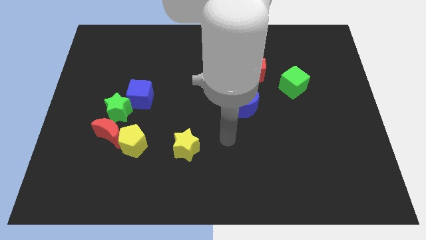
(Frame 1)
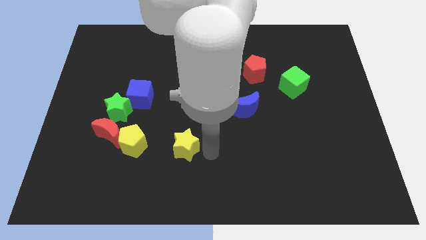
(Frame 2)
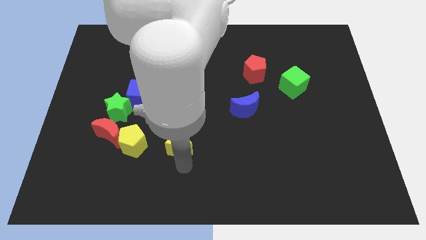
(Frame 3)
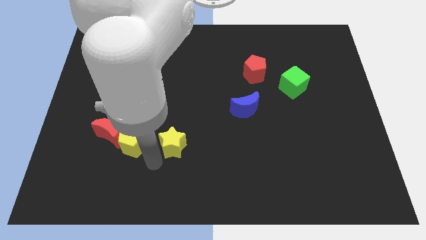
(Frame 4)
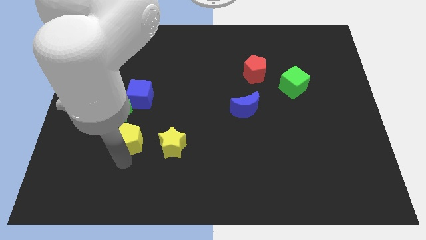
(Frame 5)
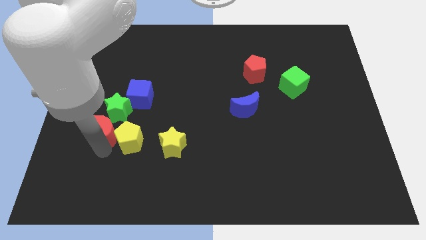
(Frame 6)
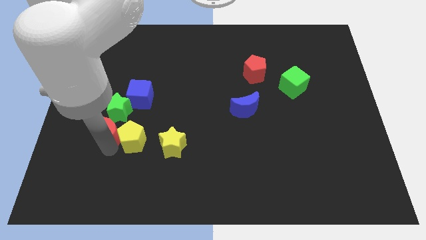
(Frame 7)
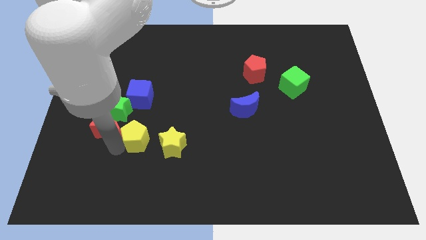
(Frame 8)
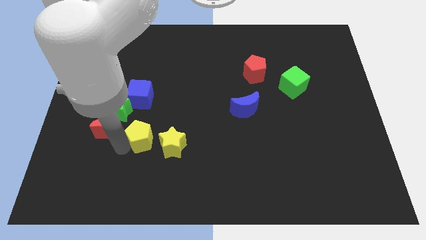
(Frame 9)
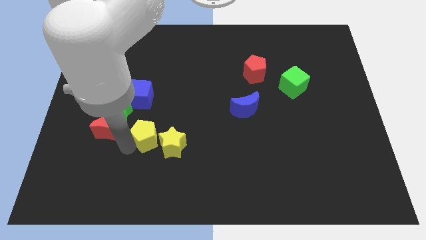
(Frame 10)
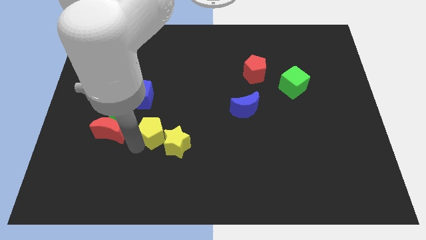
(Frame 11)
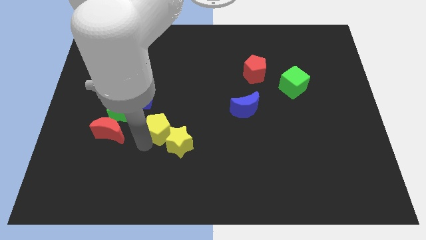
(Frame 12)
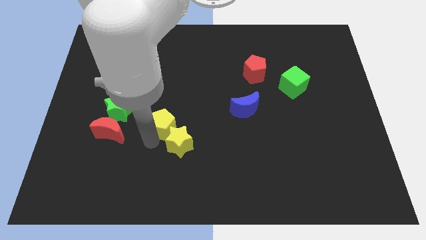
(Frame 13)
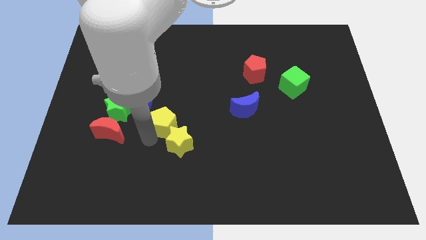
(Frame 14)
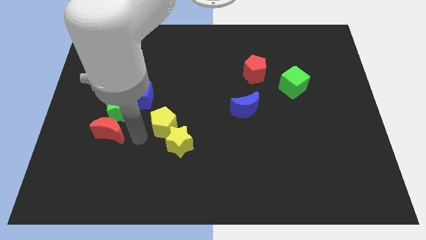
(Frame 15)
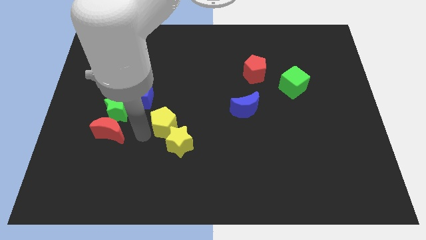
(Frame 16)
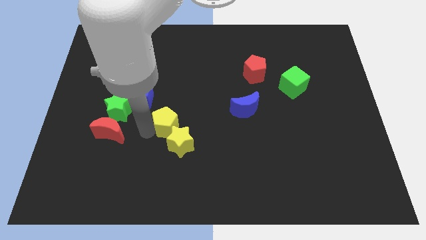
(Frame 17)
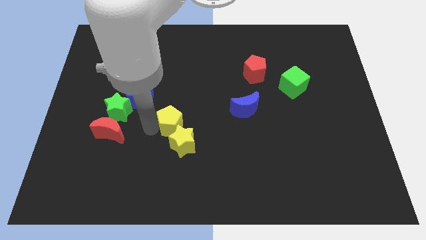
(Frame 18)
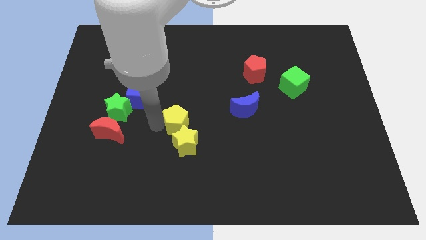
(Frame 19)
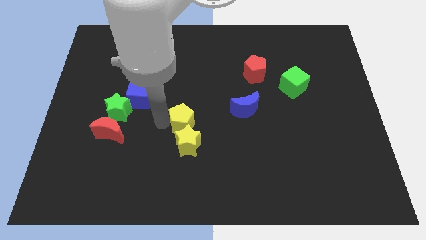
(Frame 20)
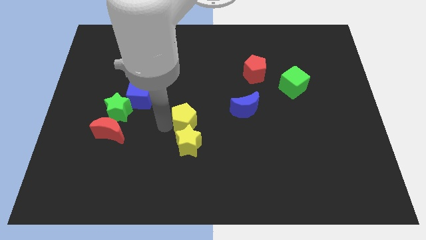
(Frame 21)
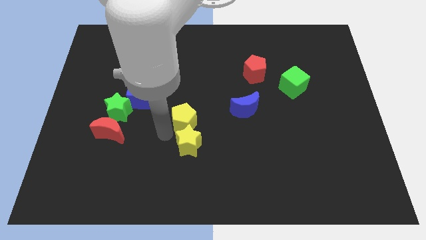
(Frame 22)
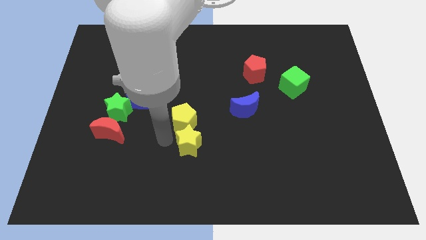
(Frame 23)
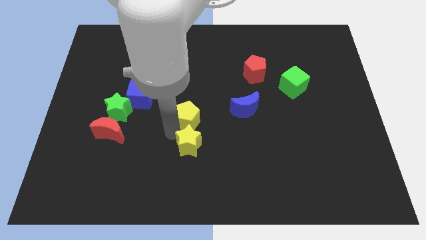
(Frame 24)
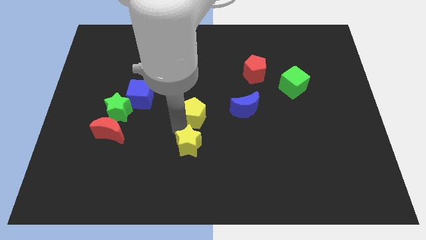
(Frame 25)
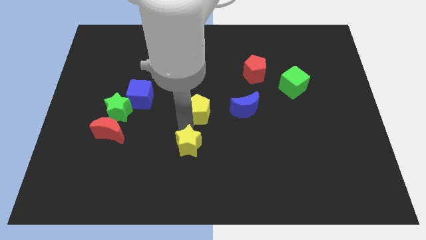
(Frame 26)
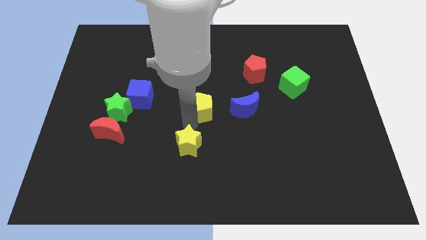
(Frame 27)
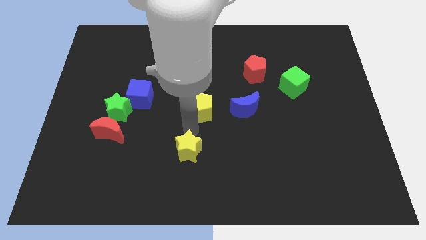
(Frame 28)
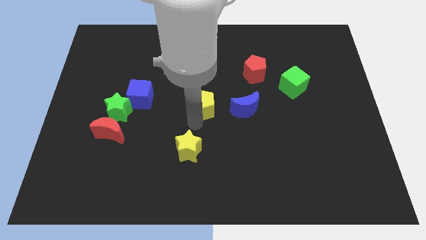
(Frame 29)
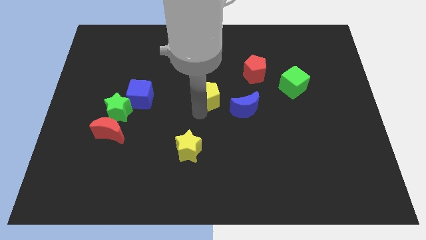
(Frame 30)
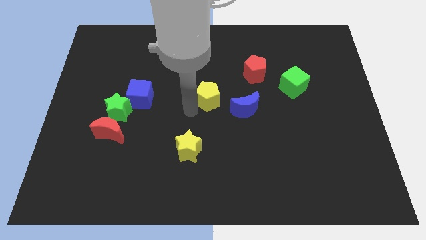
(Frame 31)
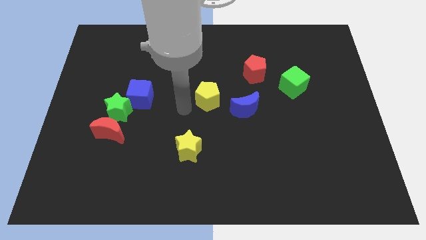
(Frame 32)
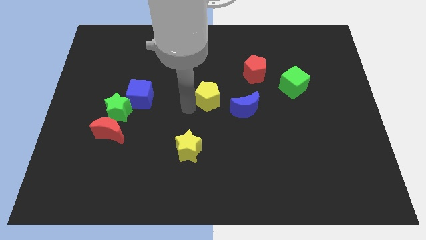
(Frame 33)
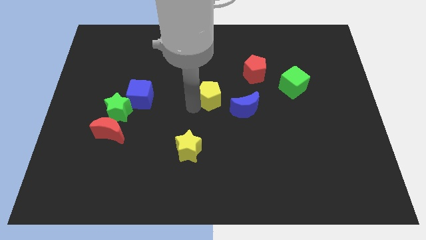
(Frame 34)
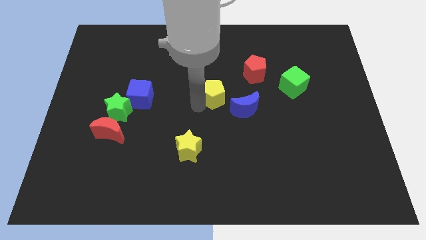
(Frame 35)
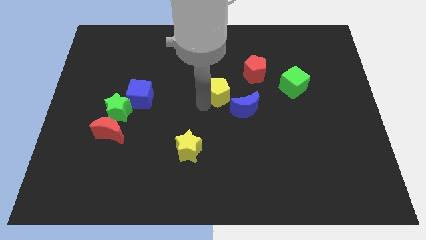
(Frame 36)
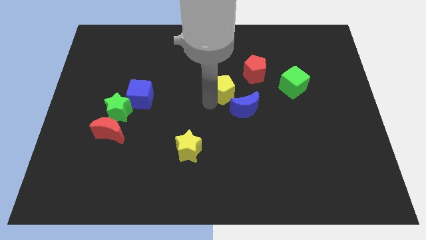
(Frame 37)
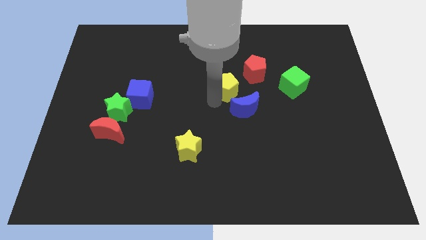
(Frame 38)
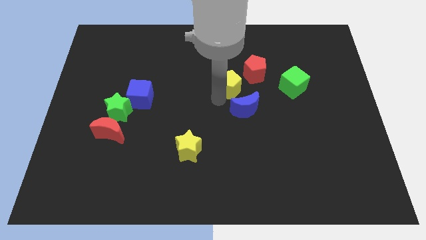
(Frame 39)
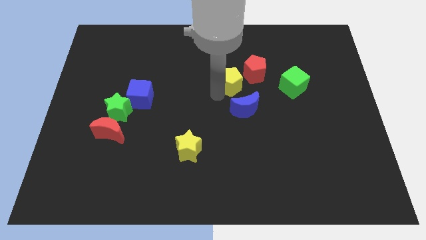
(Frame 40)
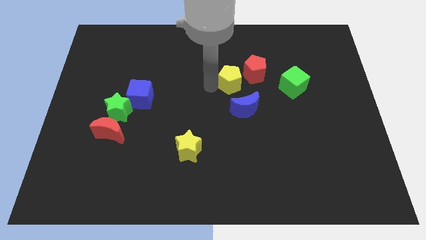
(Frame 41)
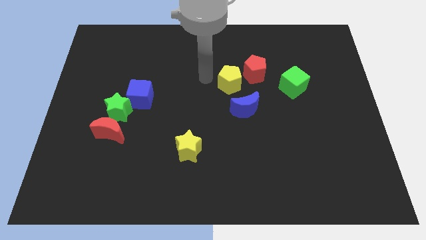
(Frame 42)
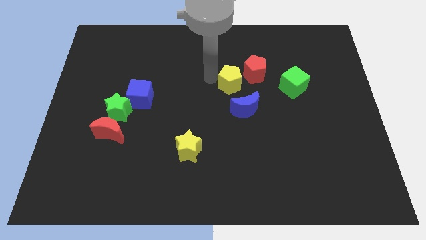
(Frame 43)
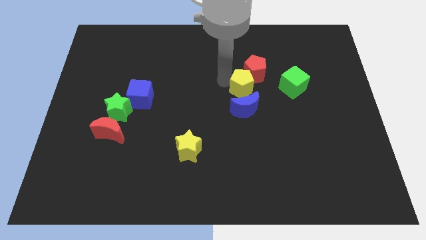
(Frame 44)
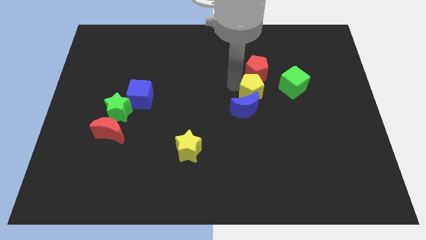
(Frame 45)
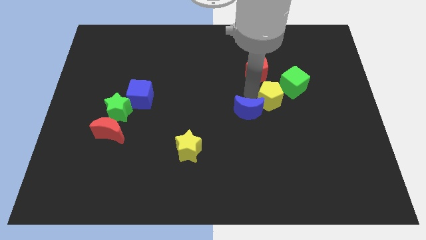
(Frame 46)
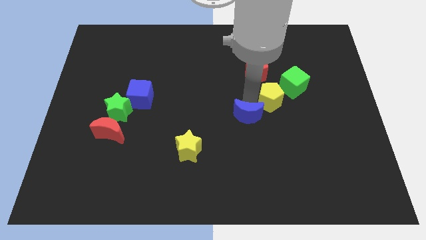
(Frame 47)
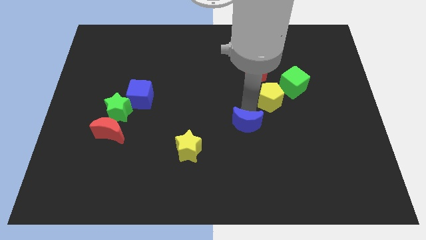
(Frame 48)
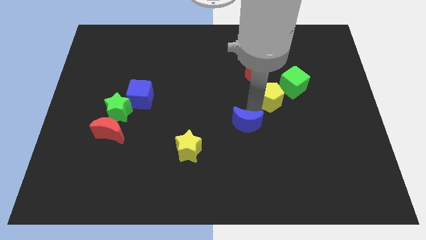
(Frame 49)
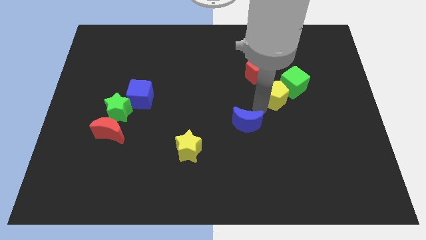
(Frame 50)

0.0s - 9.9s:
slide the yellow pentagon close to the green cube

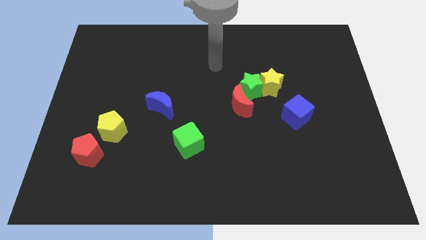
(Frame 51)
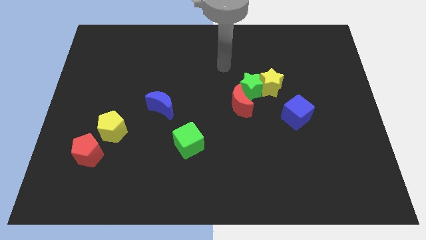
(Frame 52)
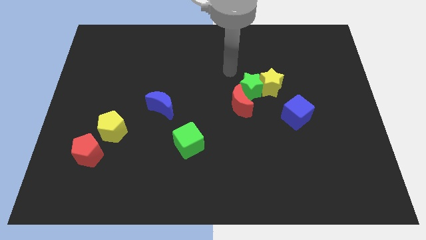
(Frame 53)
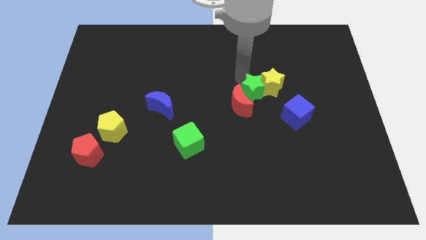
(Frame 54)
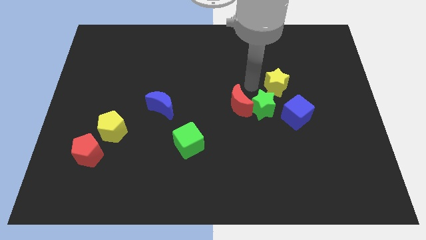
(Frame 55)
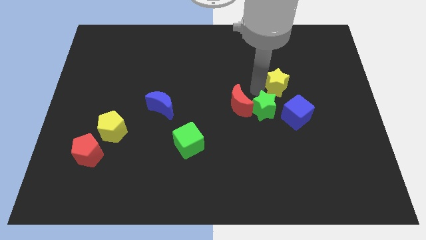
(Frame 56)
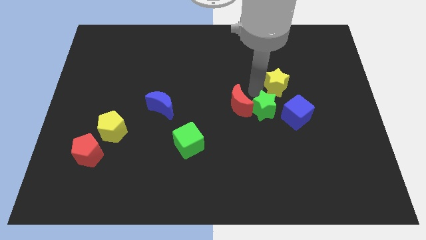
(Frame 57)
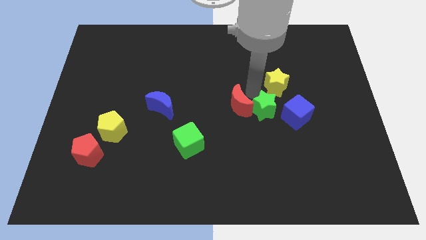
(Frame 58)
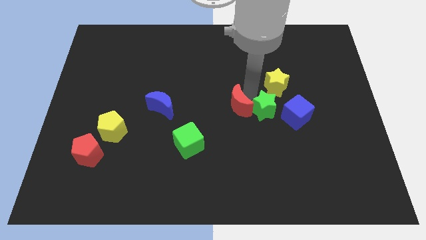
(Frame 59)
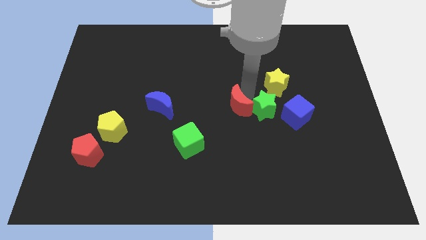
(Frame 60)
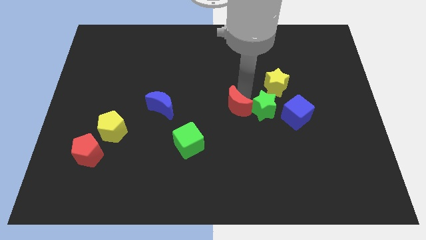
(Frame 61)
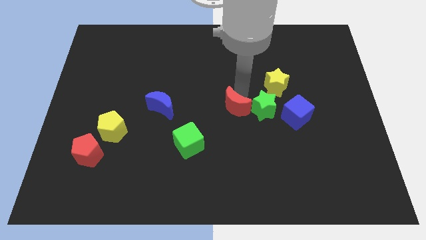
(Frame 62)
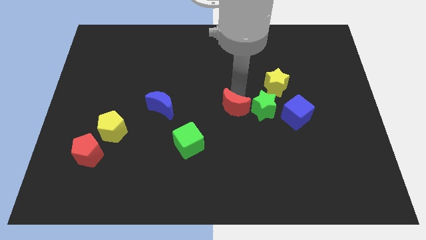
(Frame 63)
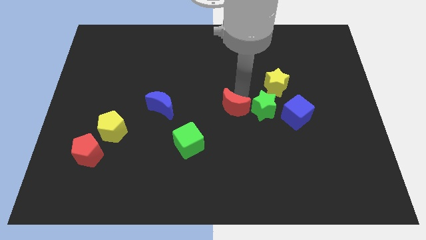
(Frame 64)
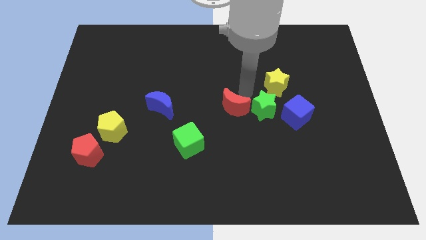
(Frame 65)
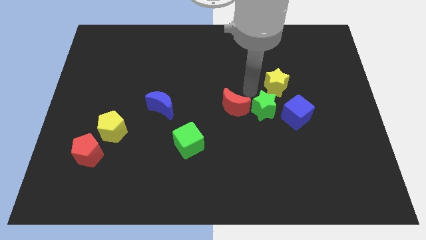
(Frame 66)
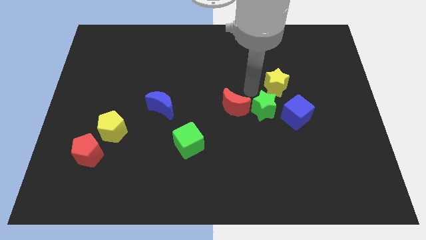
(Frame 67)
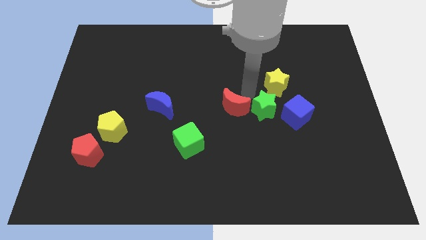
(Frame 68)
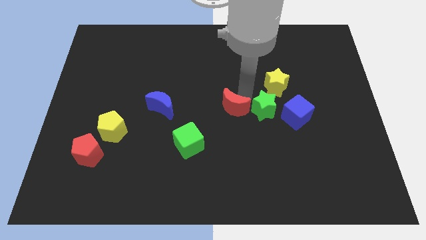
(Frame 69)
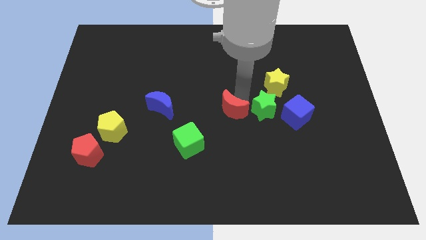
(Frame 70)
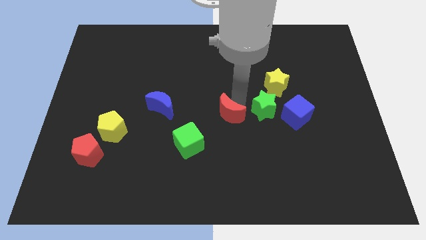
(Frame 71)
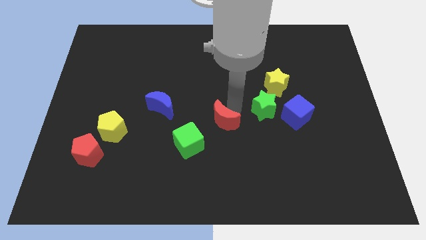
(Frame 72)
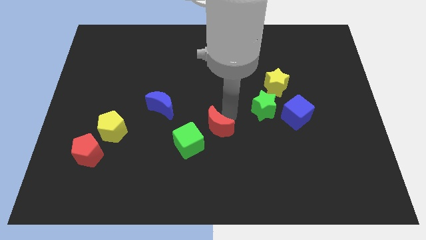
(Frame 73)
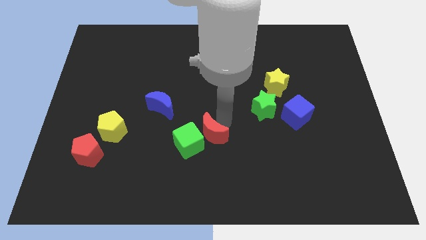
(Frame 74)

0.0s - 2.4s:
slide the red moon to the green cube

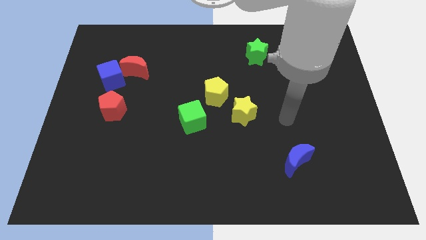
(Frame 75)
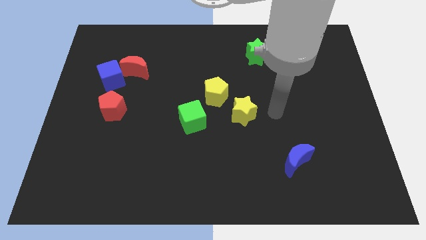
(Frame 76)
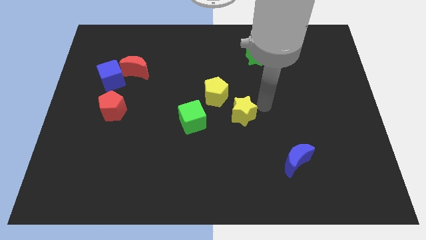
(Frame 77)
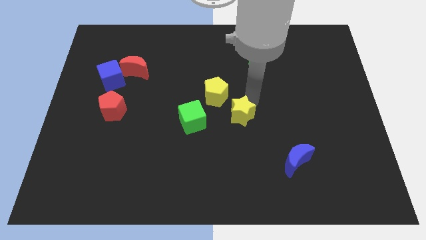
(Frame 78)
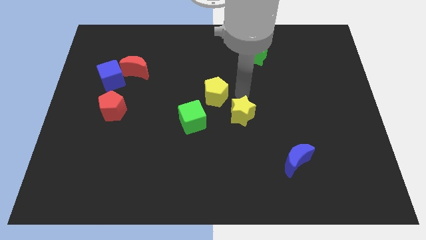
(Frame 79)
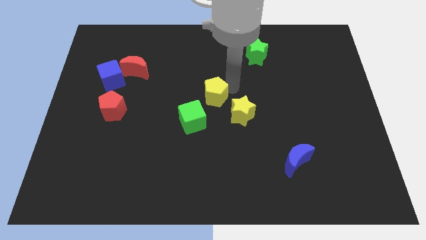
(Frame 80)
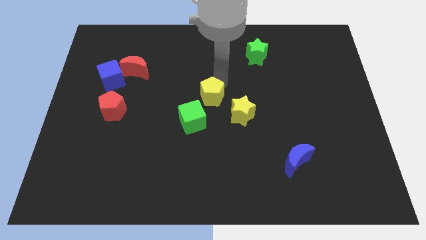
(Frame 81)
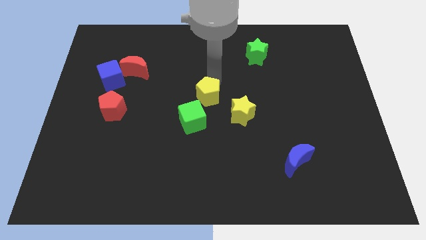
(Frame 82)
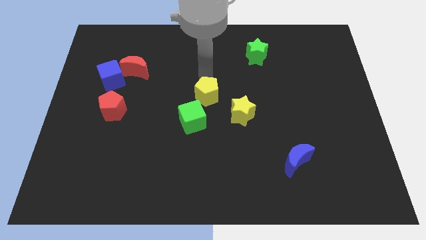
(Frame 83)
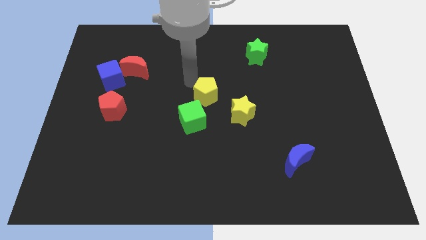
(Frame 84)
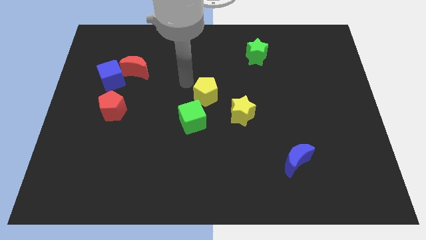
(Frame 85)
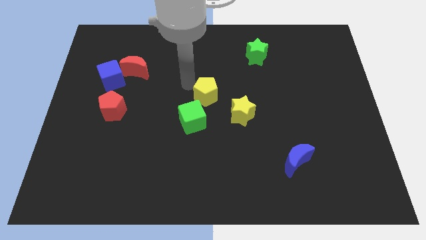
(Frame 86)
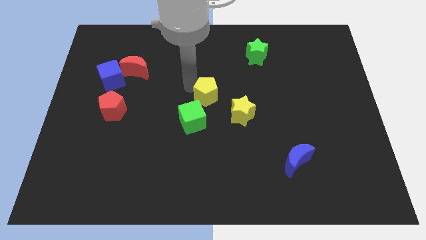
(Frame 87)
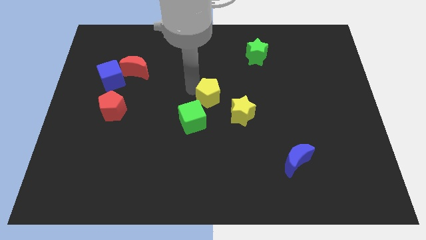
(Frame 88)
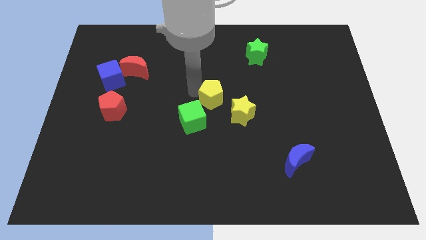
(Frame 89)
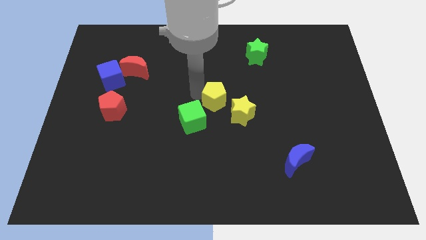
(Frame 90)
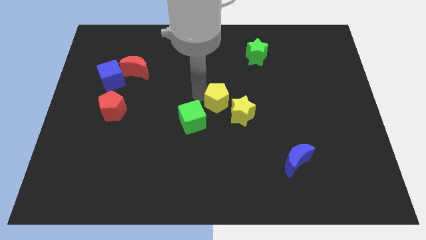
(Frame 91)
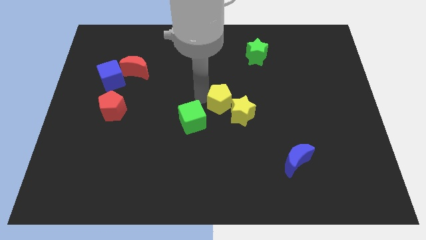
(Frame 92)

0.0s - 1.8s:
put the yellow pentagon next to the yellow star
